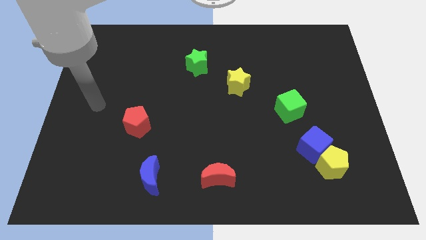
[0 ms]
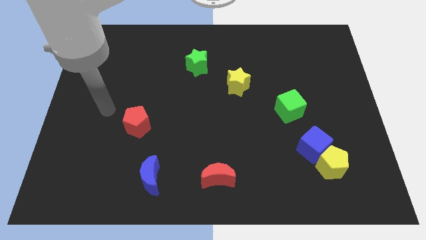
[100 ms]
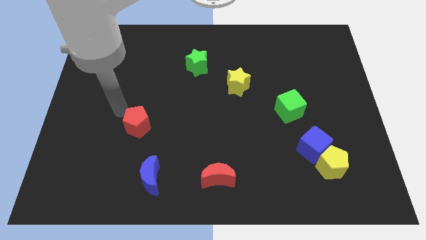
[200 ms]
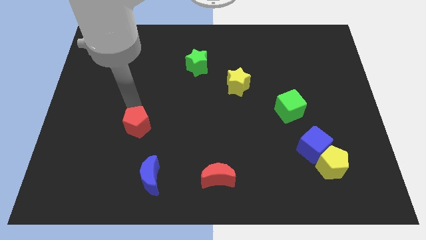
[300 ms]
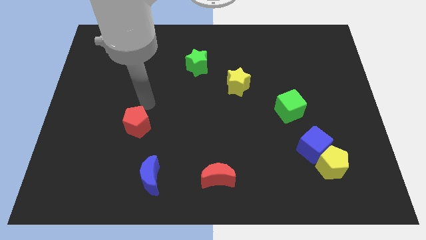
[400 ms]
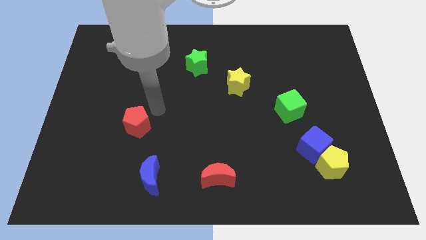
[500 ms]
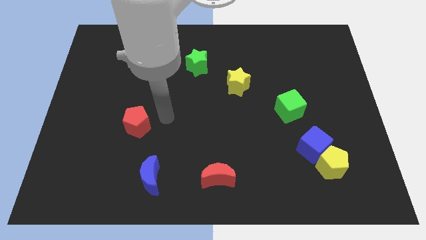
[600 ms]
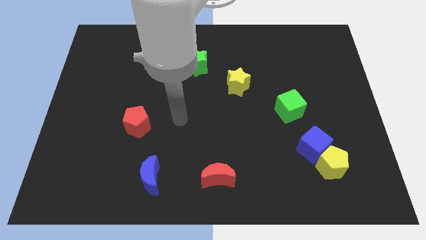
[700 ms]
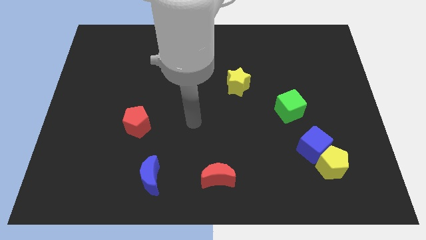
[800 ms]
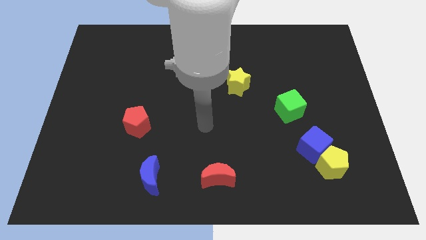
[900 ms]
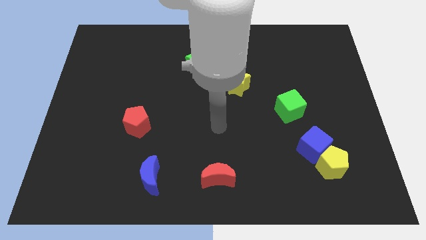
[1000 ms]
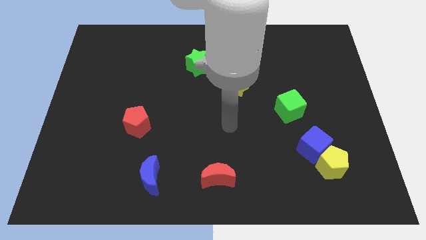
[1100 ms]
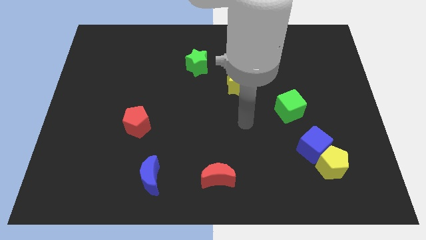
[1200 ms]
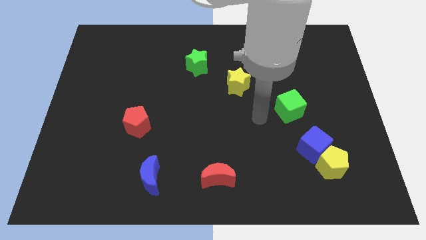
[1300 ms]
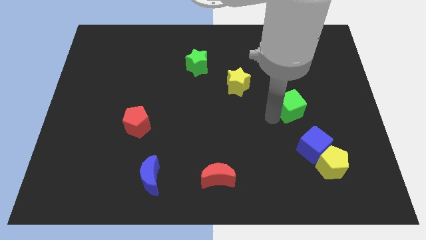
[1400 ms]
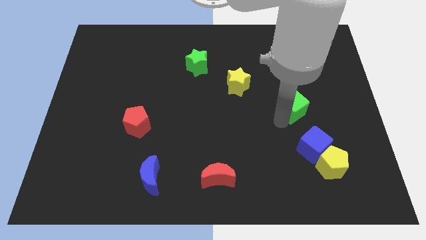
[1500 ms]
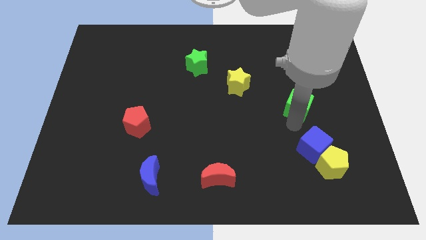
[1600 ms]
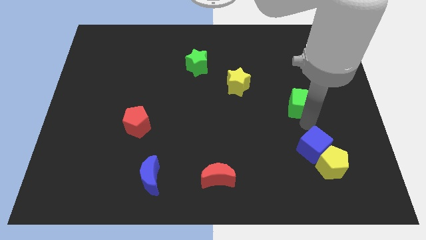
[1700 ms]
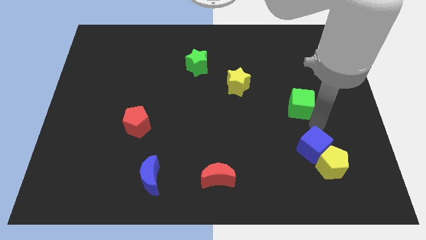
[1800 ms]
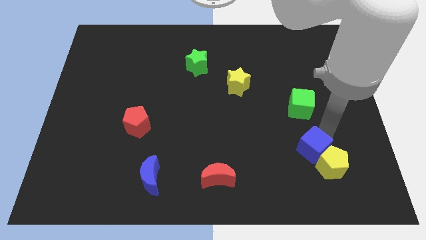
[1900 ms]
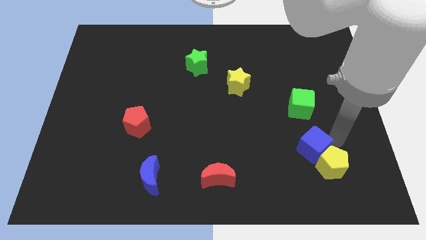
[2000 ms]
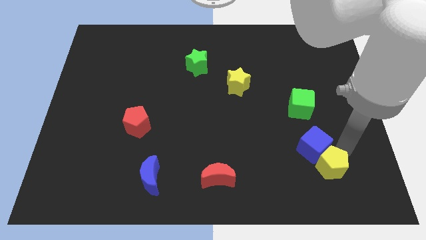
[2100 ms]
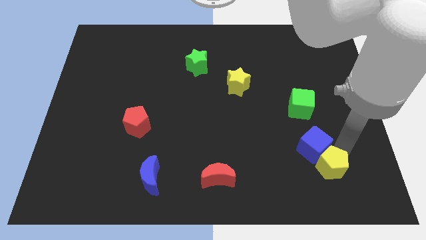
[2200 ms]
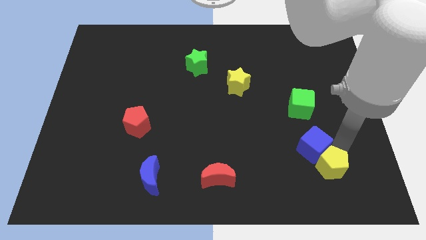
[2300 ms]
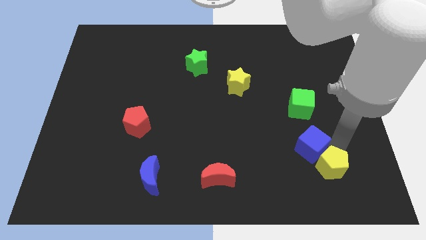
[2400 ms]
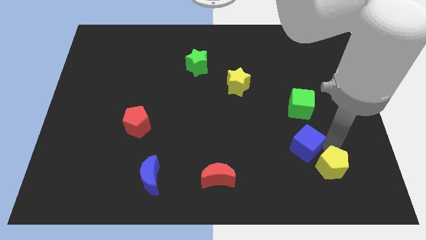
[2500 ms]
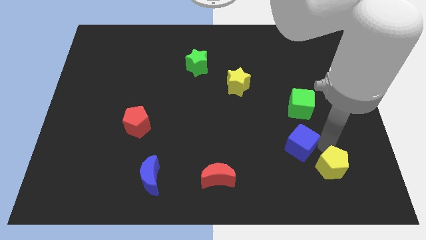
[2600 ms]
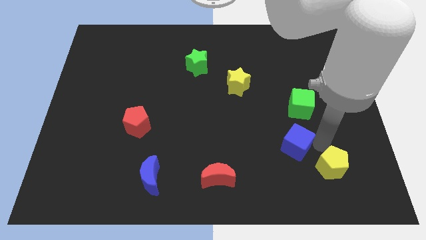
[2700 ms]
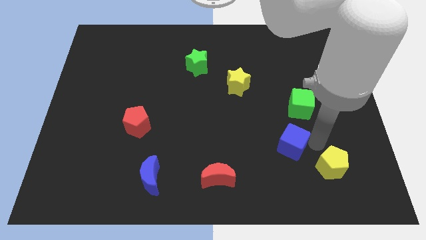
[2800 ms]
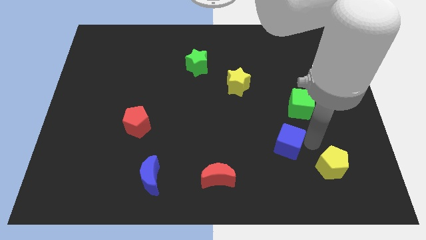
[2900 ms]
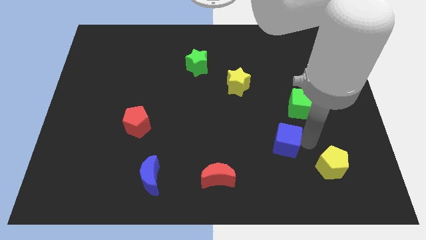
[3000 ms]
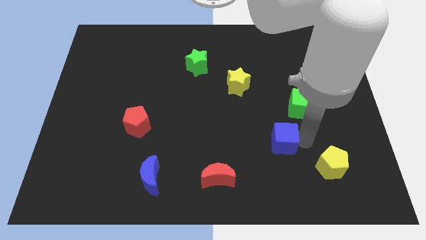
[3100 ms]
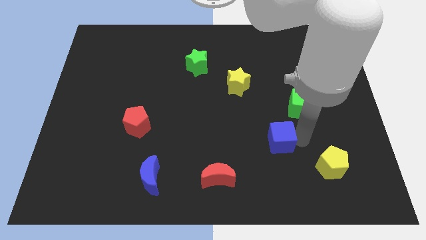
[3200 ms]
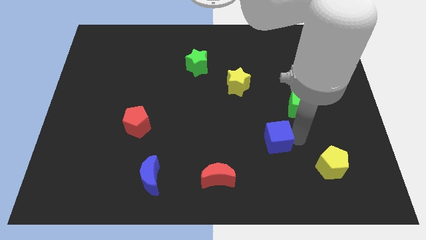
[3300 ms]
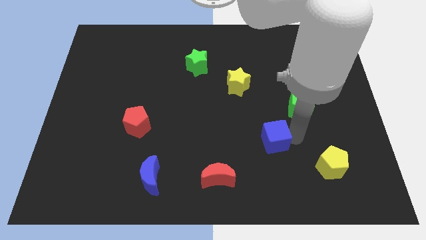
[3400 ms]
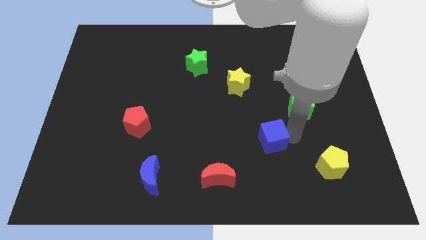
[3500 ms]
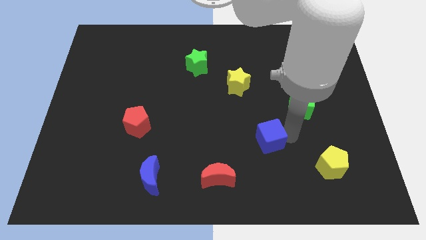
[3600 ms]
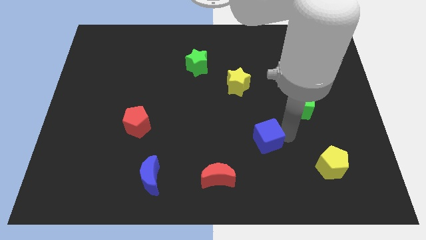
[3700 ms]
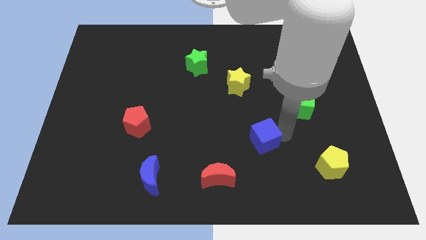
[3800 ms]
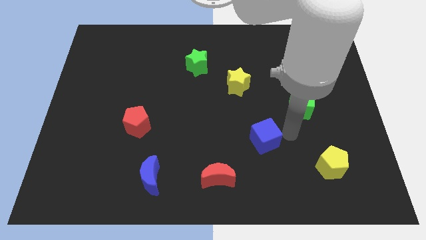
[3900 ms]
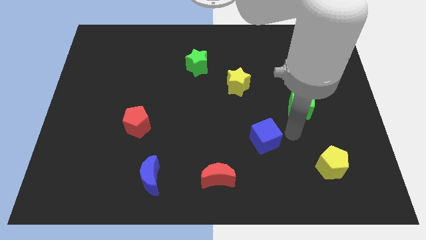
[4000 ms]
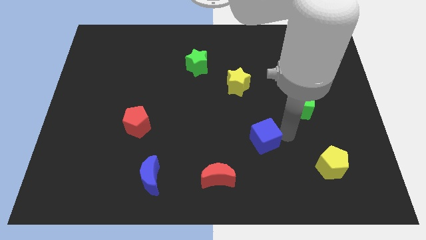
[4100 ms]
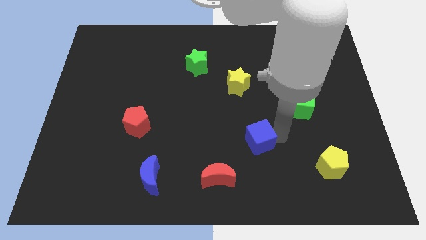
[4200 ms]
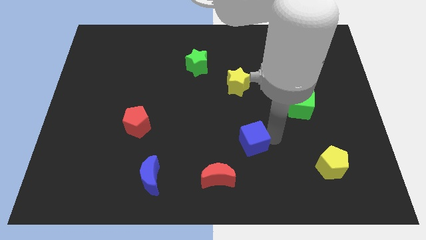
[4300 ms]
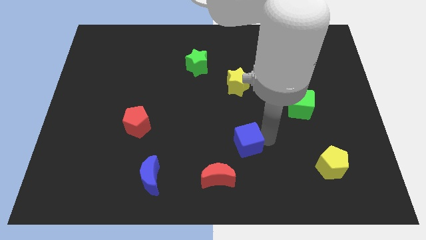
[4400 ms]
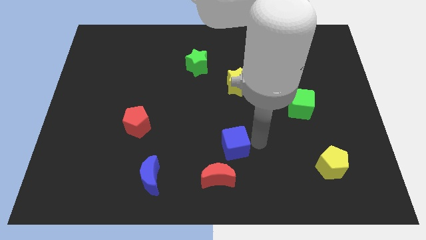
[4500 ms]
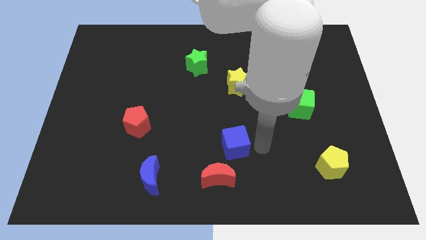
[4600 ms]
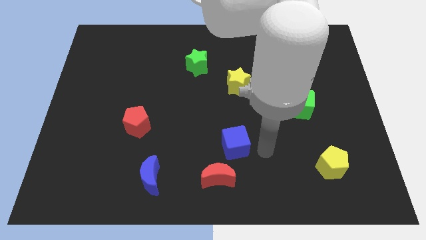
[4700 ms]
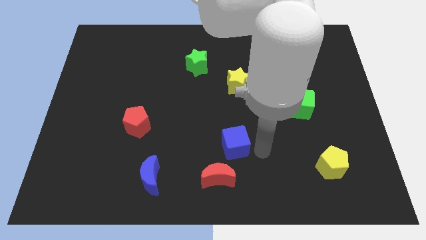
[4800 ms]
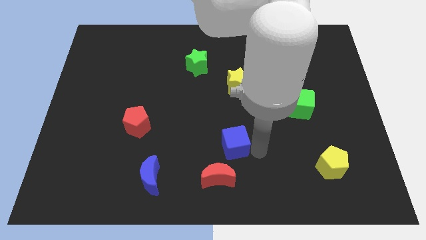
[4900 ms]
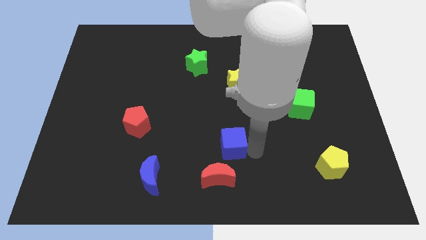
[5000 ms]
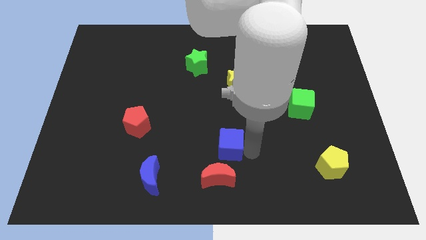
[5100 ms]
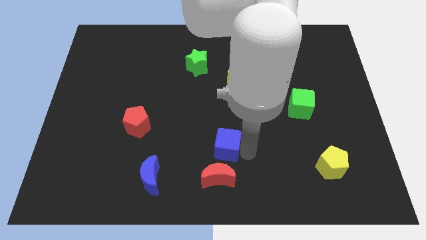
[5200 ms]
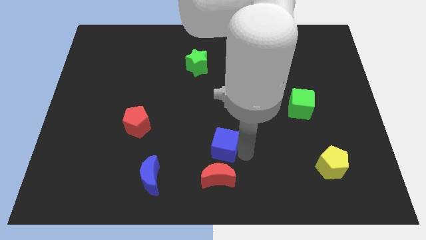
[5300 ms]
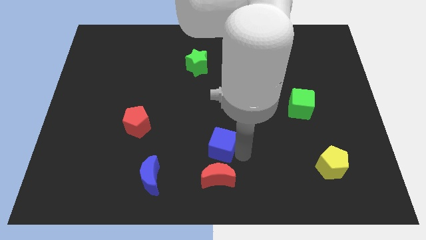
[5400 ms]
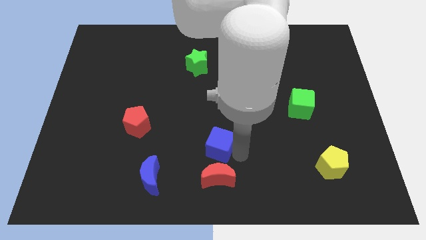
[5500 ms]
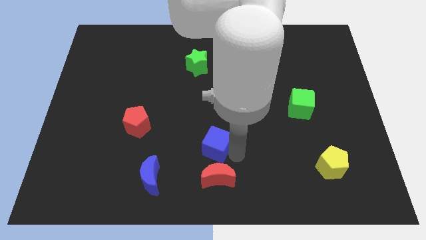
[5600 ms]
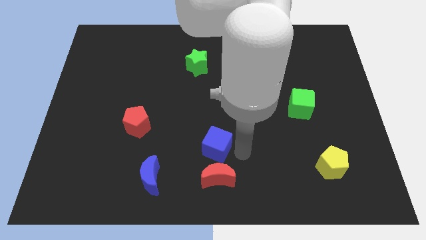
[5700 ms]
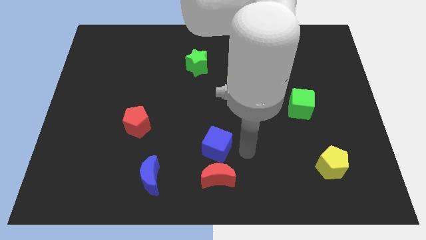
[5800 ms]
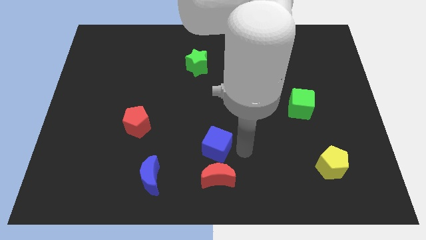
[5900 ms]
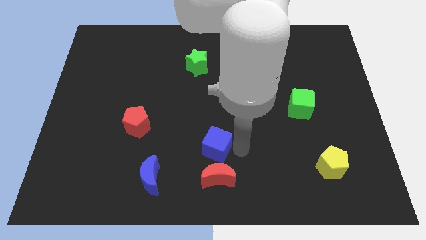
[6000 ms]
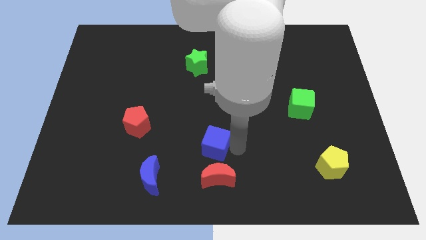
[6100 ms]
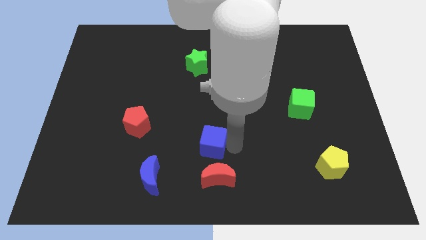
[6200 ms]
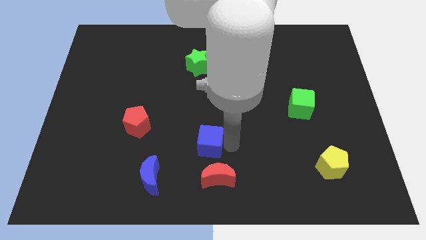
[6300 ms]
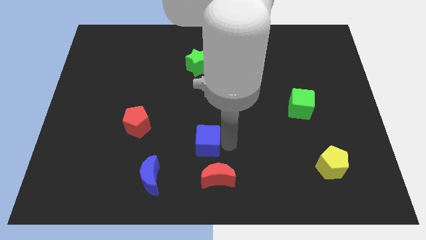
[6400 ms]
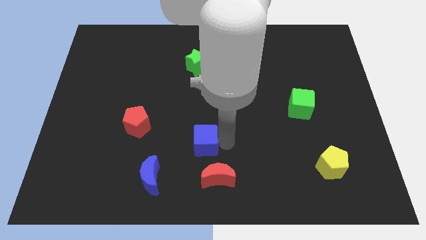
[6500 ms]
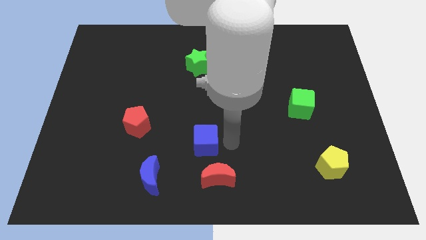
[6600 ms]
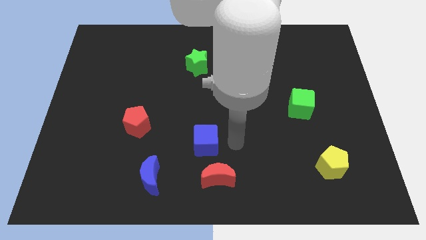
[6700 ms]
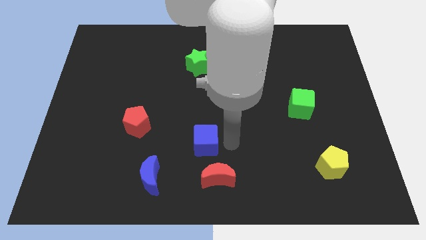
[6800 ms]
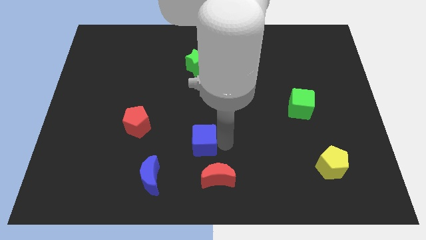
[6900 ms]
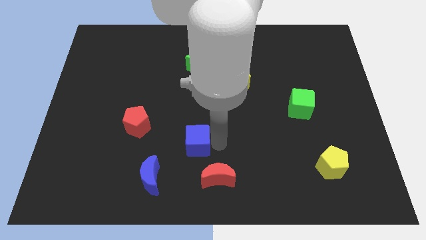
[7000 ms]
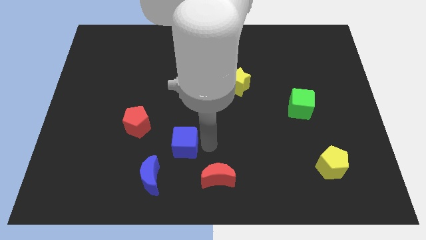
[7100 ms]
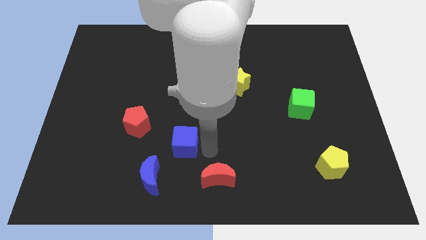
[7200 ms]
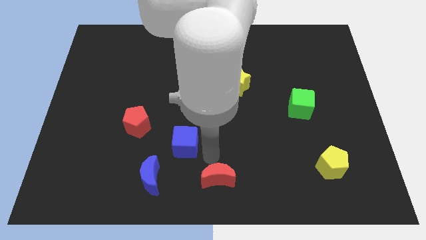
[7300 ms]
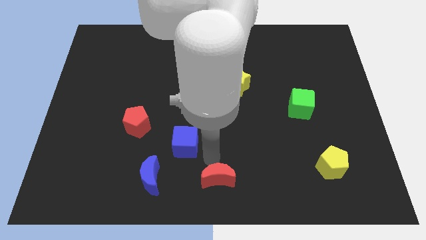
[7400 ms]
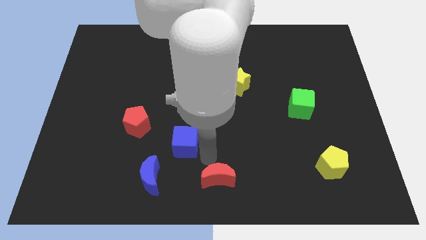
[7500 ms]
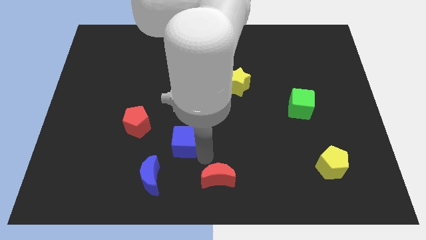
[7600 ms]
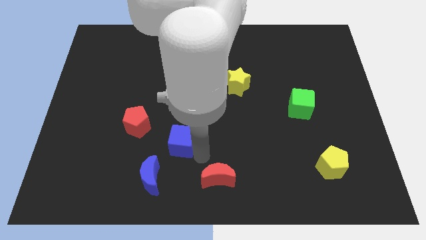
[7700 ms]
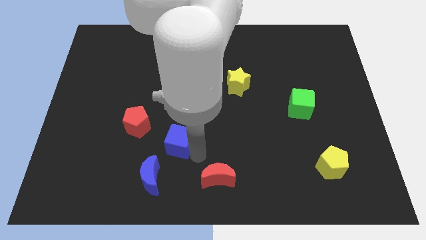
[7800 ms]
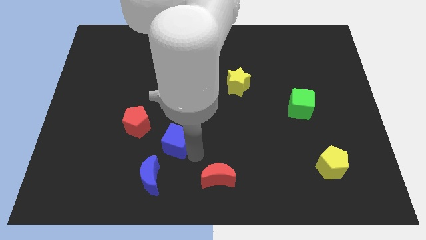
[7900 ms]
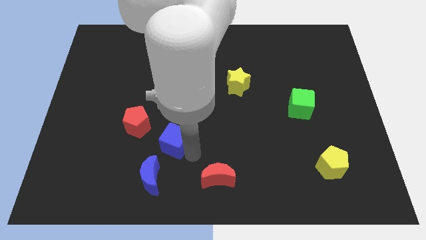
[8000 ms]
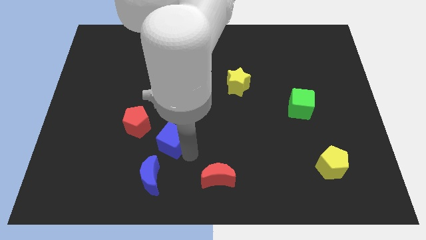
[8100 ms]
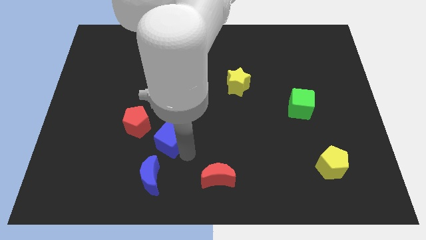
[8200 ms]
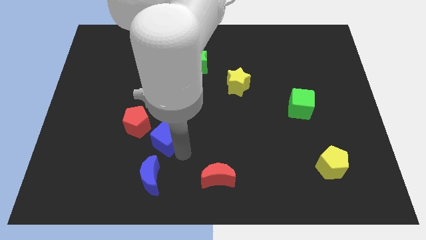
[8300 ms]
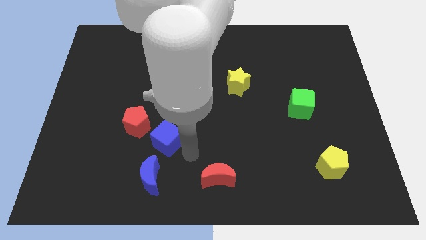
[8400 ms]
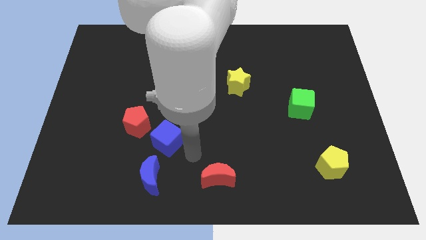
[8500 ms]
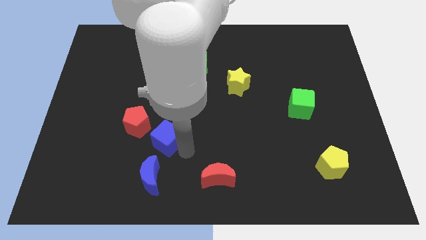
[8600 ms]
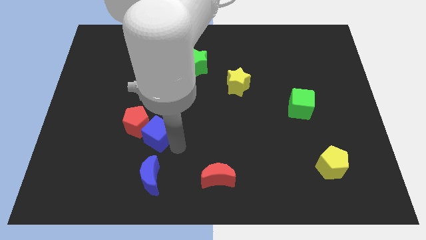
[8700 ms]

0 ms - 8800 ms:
push the blue cube close to the red pentagon
